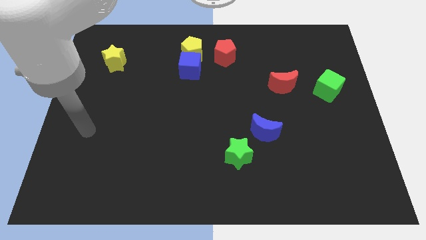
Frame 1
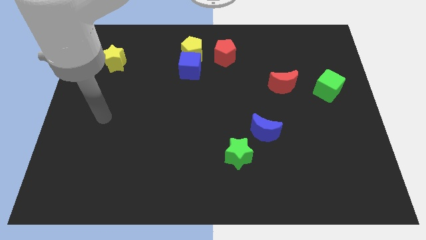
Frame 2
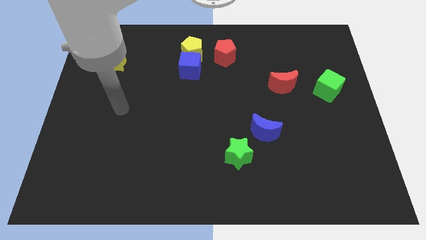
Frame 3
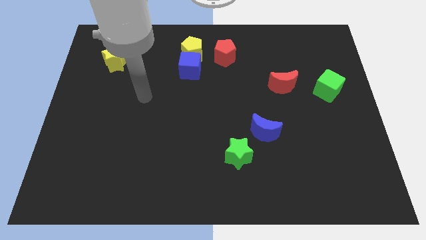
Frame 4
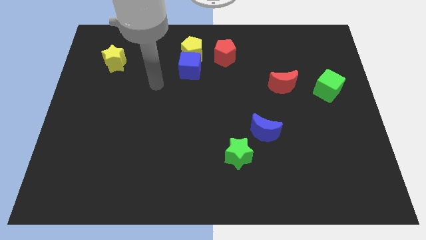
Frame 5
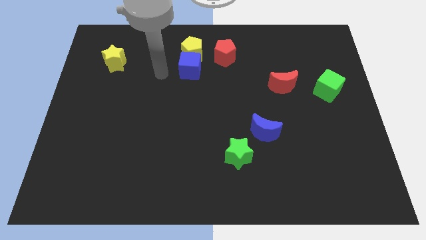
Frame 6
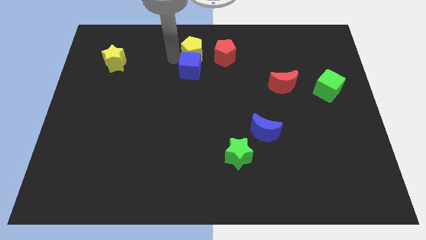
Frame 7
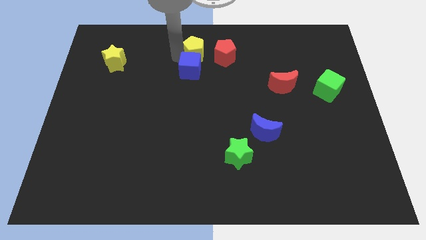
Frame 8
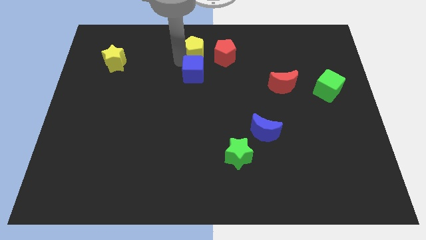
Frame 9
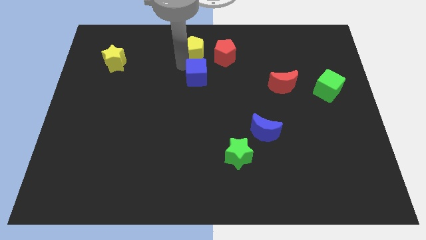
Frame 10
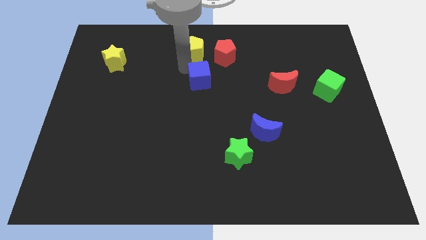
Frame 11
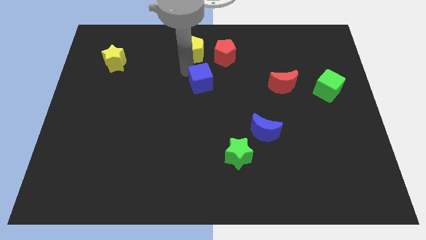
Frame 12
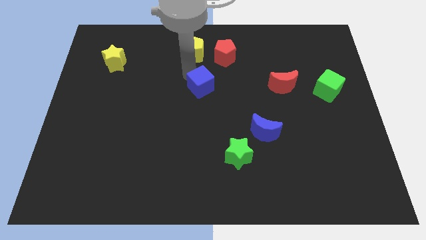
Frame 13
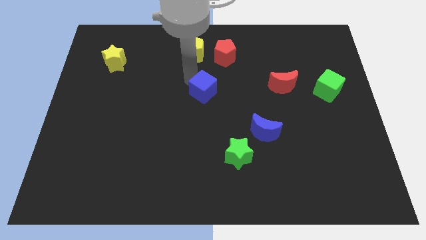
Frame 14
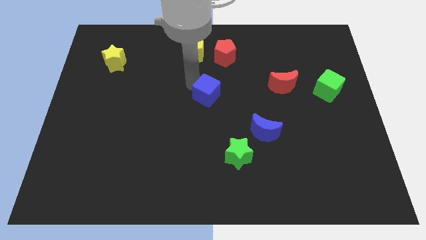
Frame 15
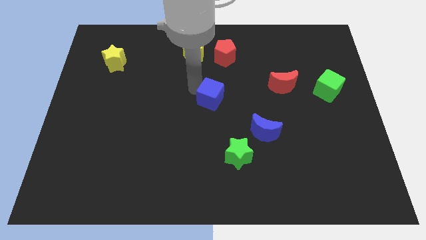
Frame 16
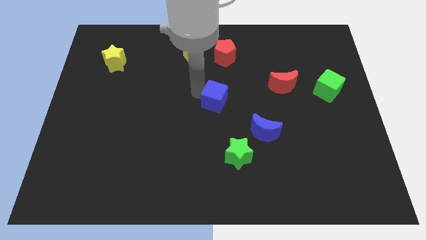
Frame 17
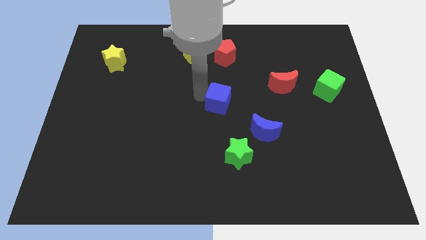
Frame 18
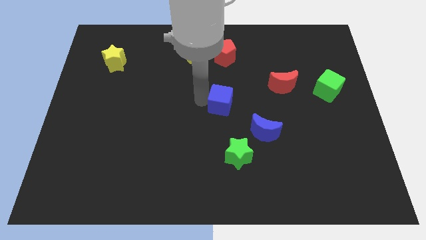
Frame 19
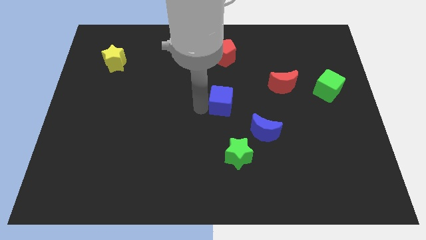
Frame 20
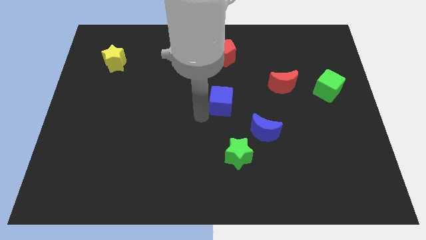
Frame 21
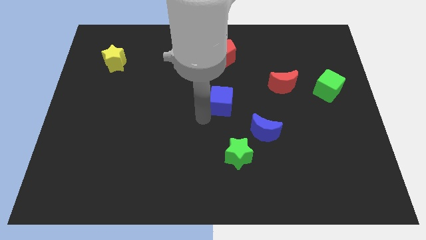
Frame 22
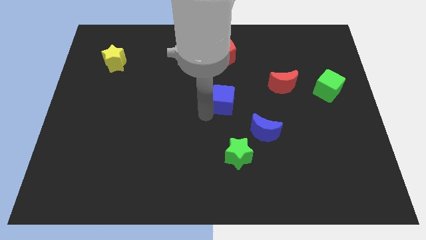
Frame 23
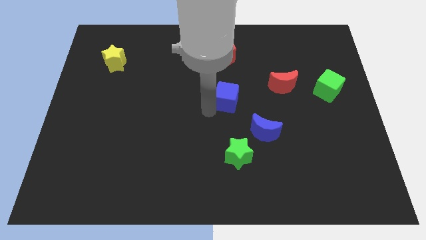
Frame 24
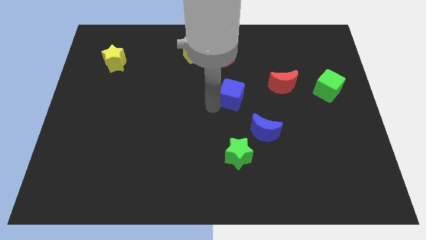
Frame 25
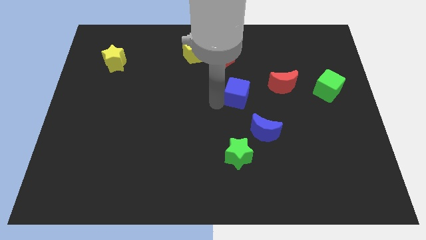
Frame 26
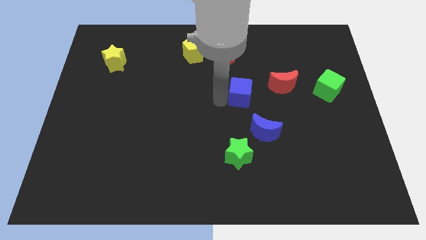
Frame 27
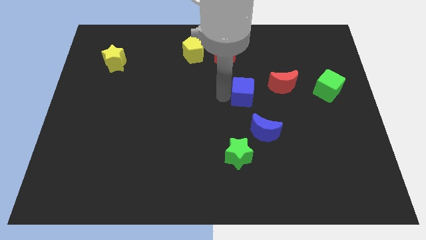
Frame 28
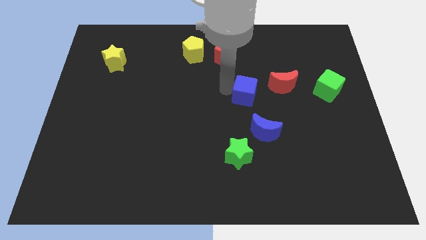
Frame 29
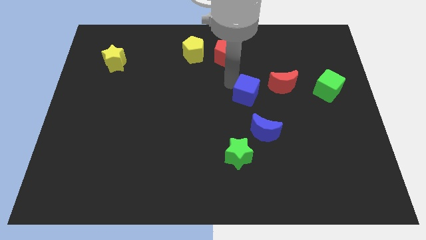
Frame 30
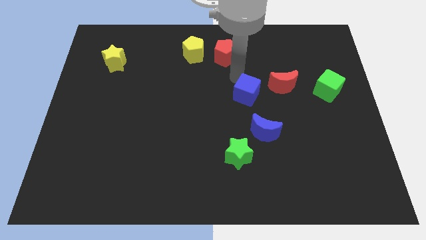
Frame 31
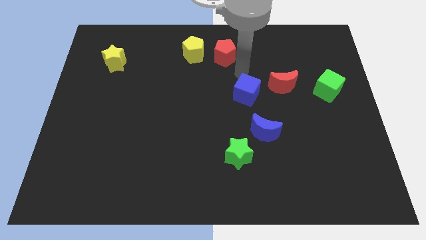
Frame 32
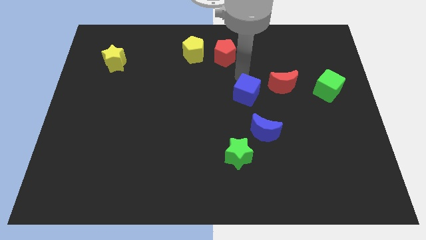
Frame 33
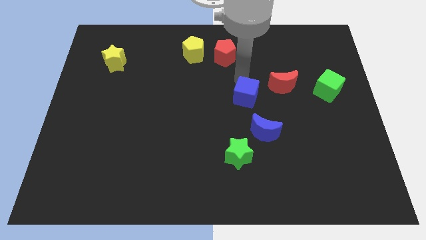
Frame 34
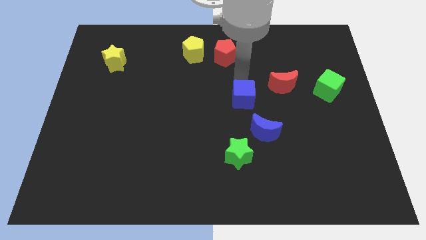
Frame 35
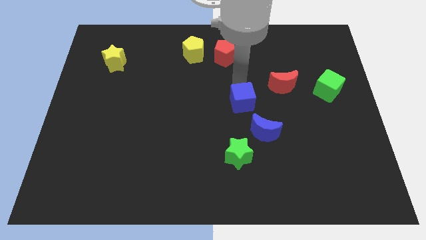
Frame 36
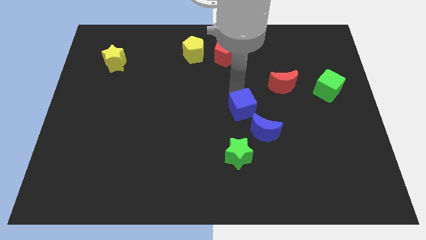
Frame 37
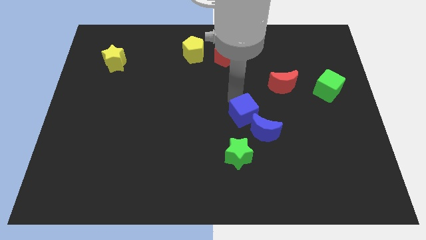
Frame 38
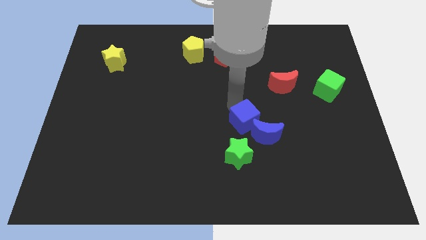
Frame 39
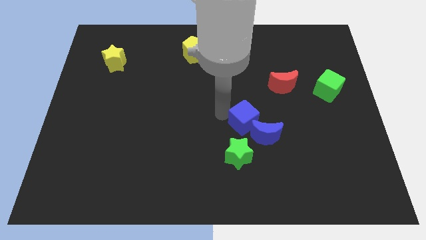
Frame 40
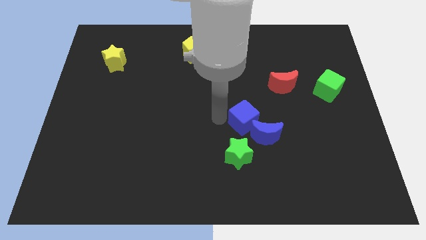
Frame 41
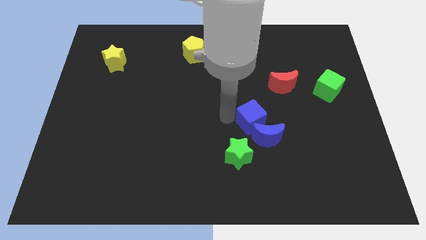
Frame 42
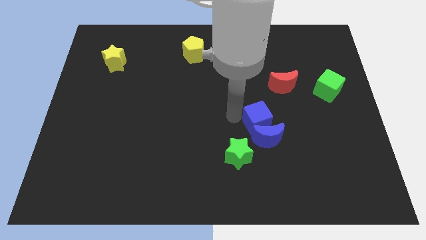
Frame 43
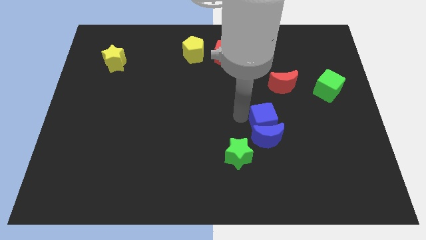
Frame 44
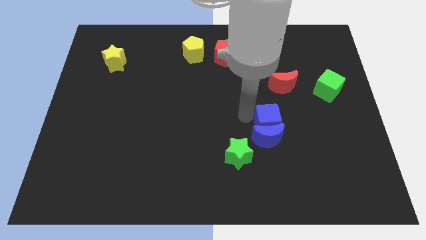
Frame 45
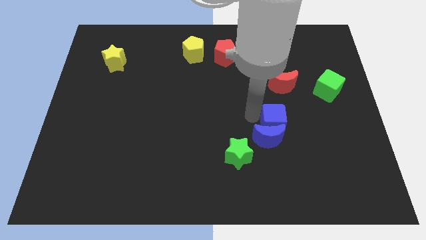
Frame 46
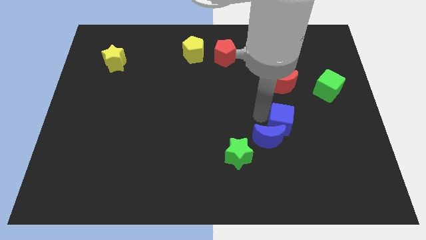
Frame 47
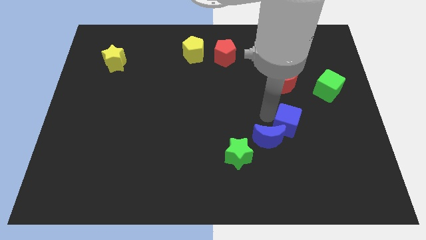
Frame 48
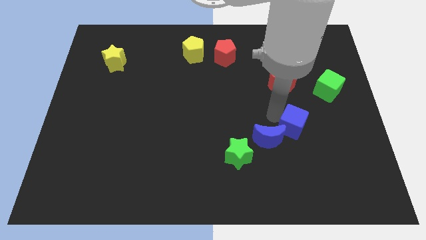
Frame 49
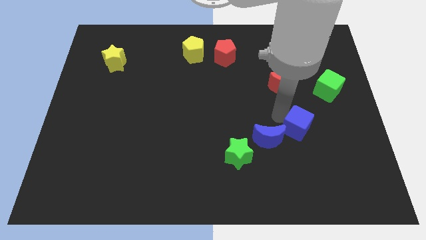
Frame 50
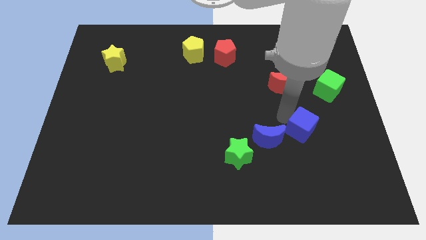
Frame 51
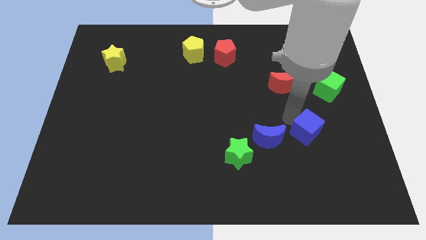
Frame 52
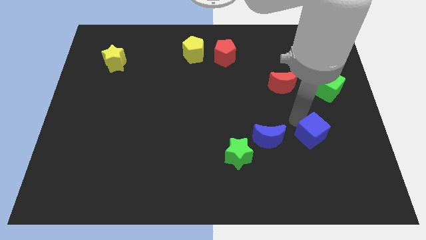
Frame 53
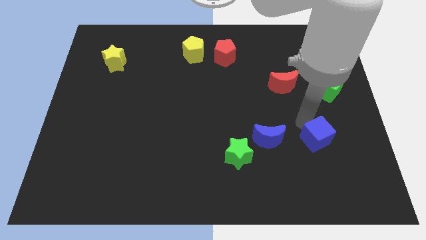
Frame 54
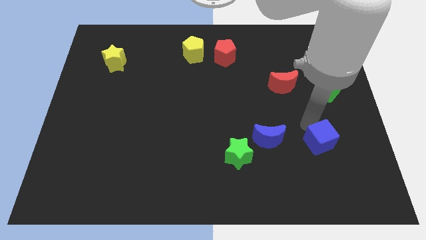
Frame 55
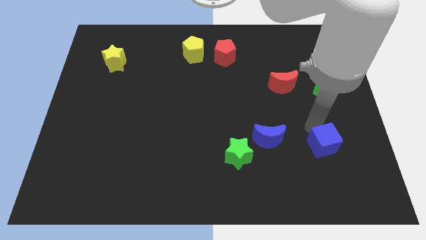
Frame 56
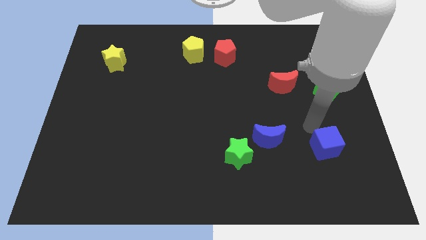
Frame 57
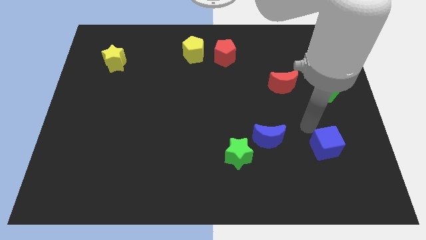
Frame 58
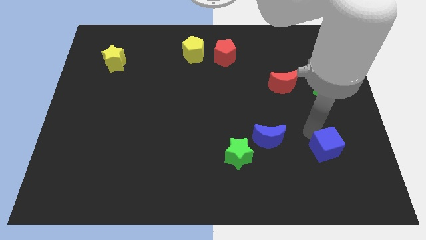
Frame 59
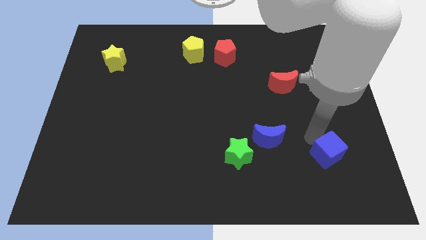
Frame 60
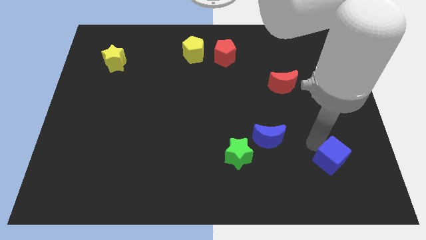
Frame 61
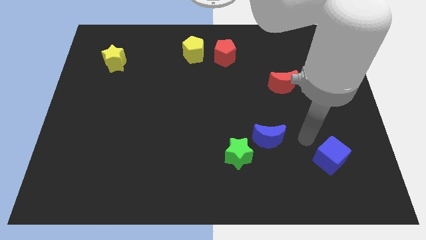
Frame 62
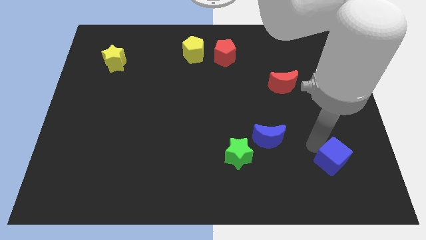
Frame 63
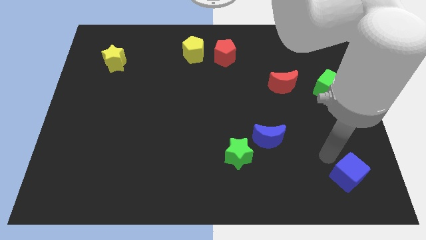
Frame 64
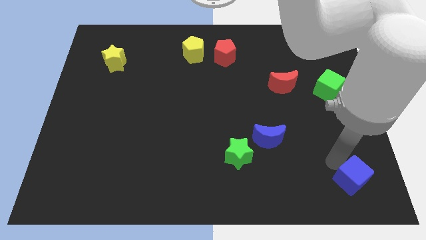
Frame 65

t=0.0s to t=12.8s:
slide the blue cube to the bottom right
